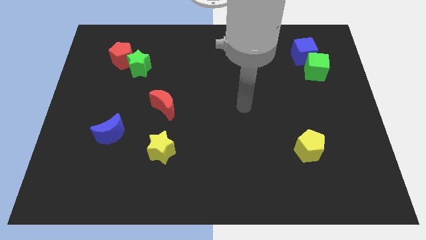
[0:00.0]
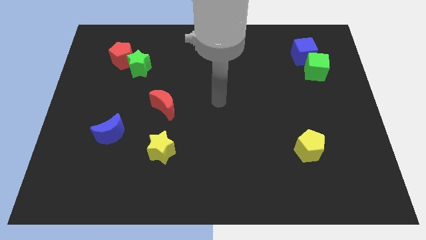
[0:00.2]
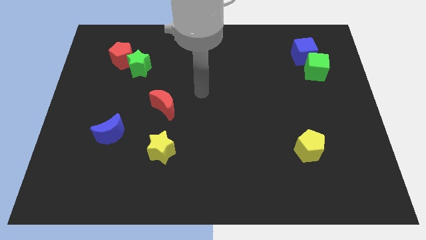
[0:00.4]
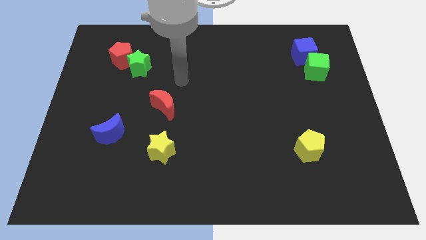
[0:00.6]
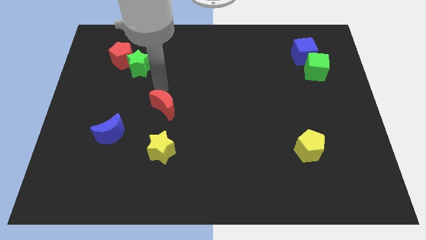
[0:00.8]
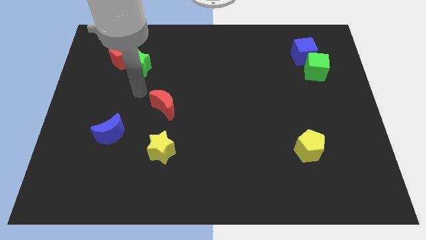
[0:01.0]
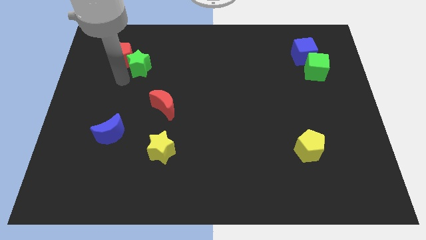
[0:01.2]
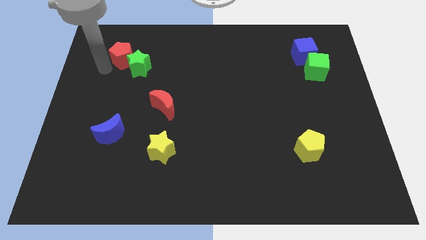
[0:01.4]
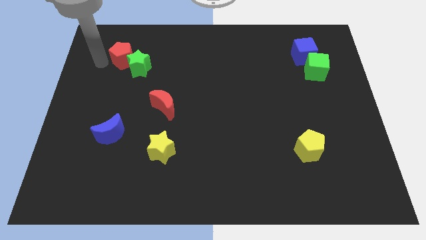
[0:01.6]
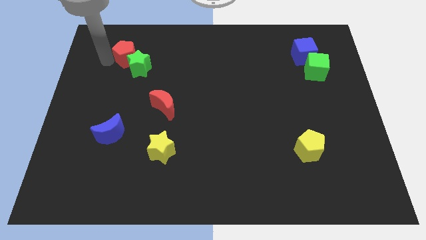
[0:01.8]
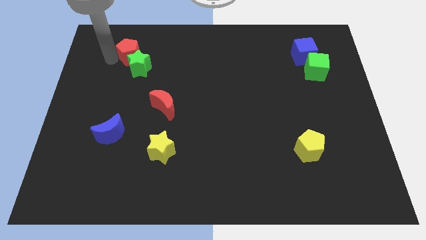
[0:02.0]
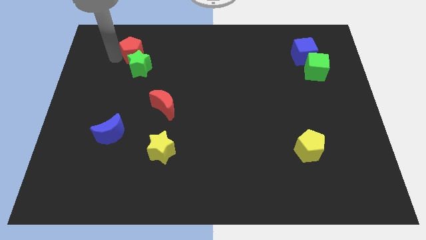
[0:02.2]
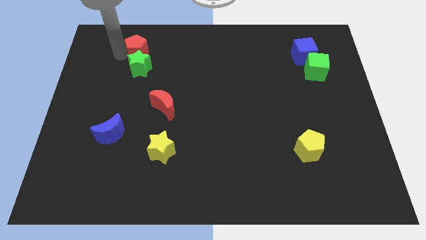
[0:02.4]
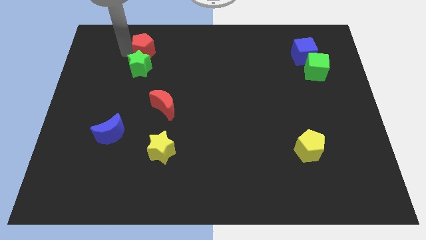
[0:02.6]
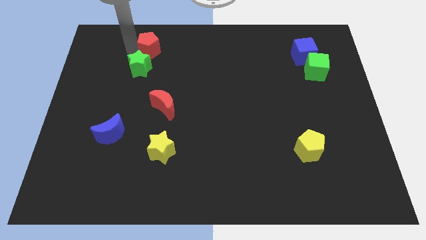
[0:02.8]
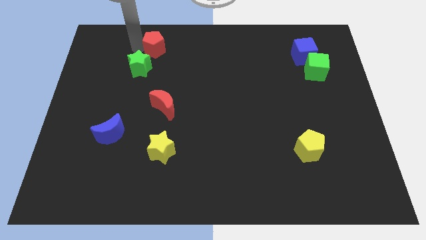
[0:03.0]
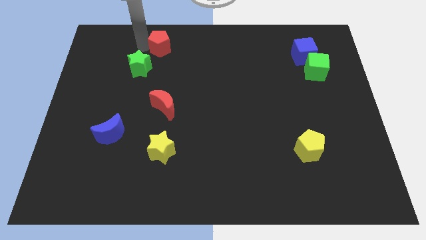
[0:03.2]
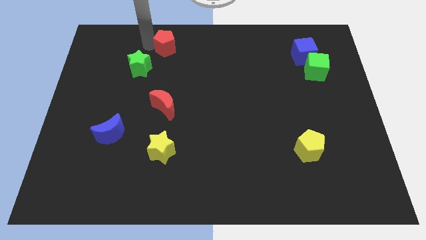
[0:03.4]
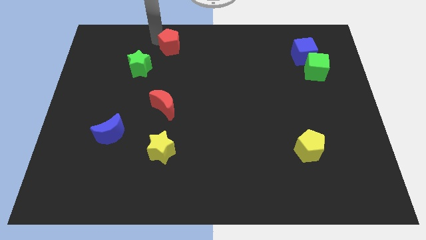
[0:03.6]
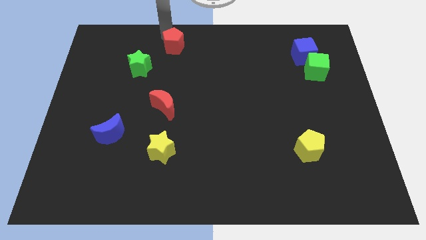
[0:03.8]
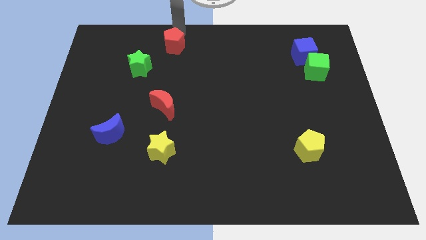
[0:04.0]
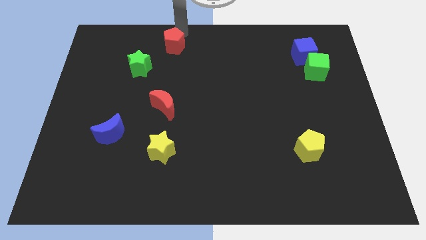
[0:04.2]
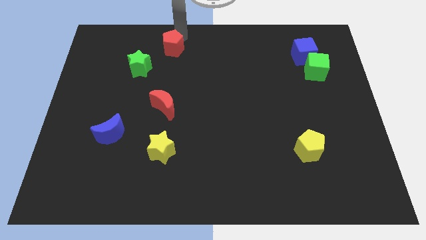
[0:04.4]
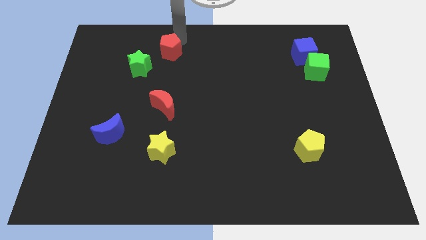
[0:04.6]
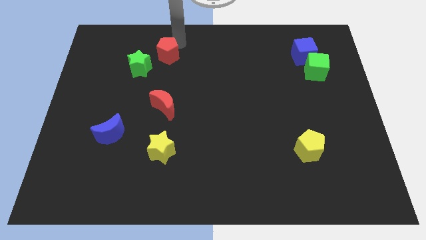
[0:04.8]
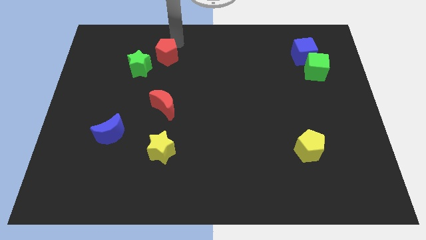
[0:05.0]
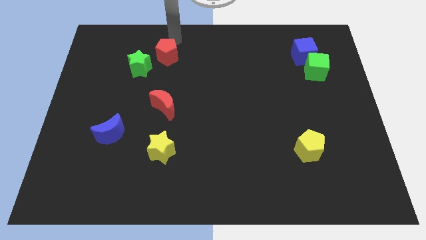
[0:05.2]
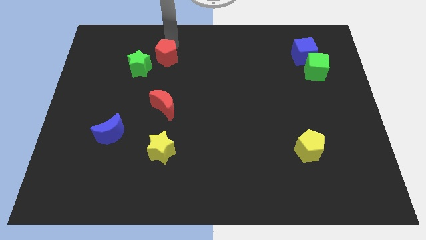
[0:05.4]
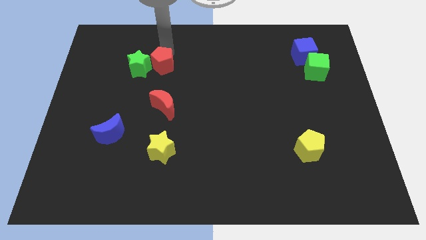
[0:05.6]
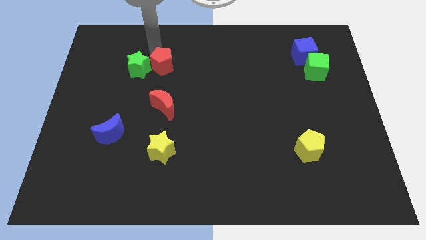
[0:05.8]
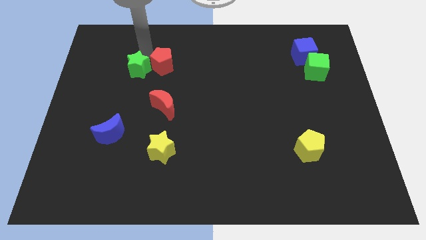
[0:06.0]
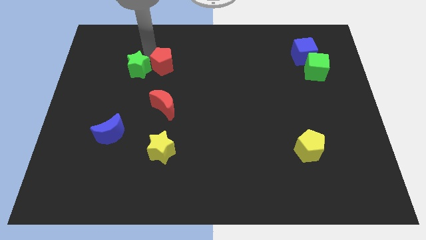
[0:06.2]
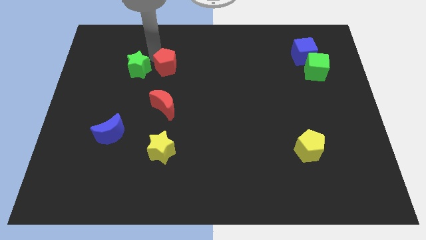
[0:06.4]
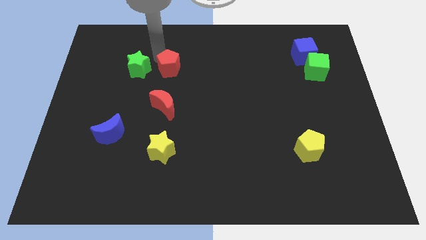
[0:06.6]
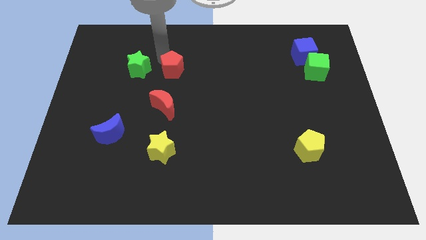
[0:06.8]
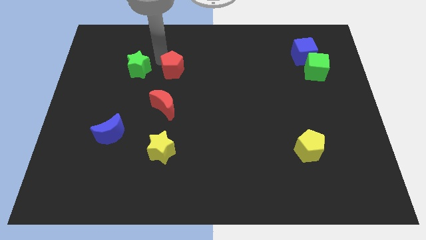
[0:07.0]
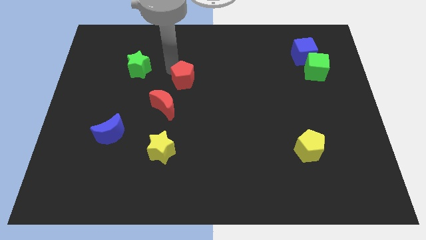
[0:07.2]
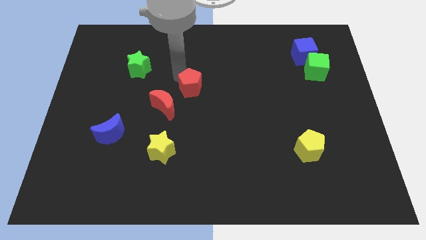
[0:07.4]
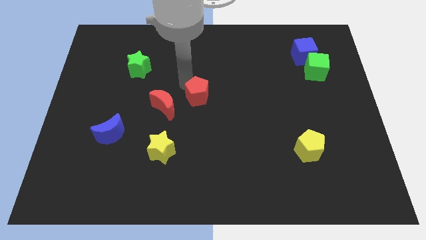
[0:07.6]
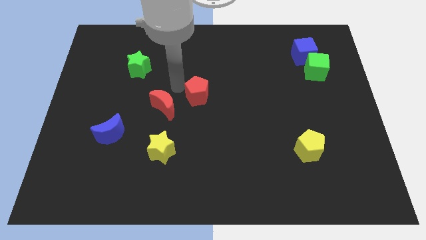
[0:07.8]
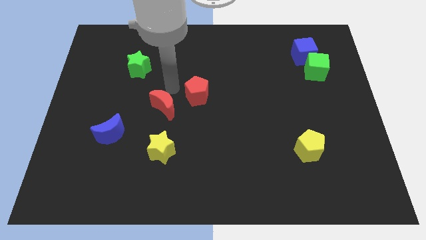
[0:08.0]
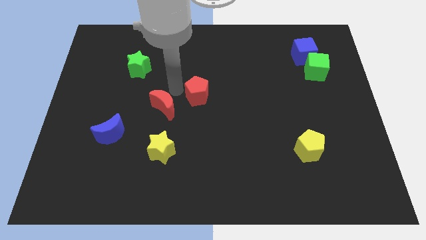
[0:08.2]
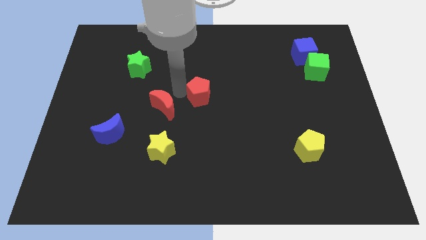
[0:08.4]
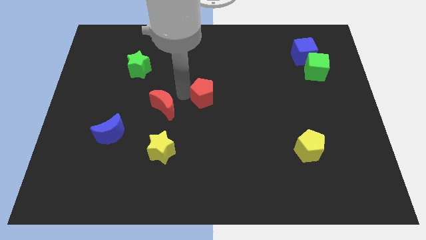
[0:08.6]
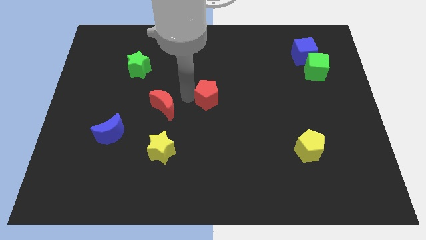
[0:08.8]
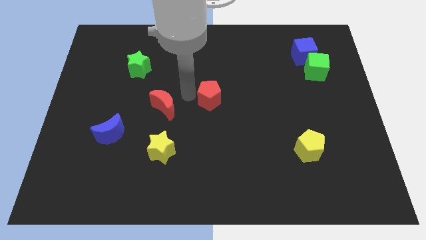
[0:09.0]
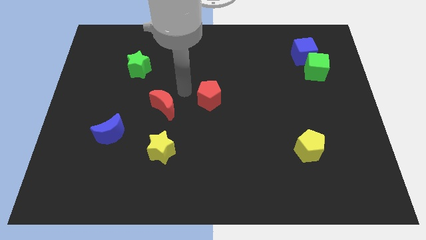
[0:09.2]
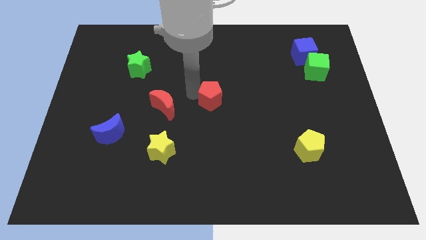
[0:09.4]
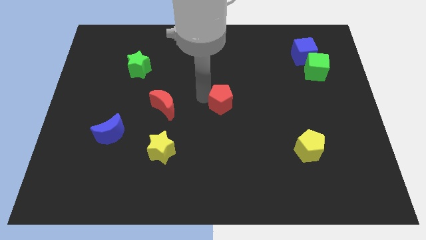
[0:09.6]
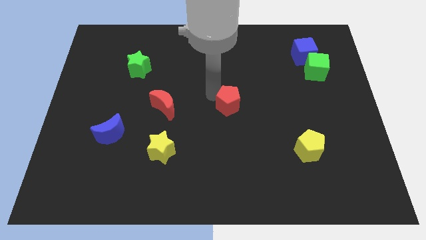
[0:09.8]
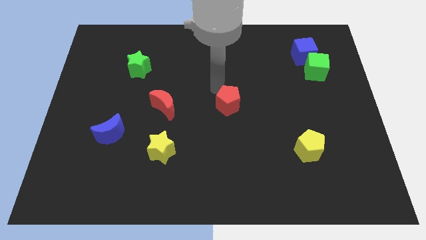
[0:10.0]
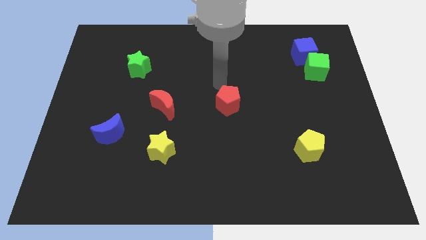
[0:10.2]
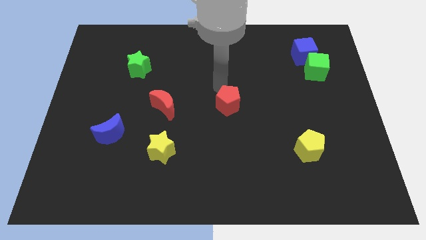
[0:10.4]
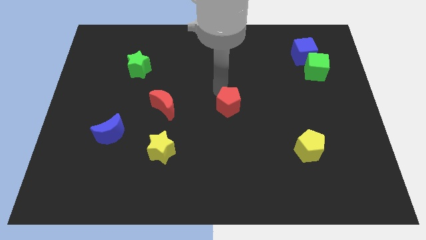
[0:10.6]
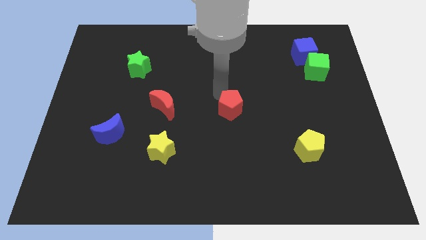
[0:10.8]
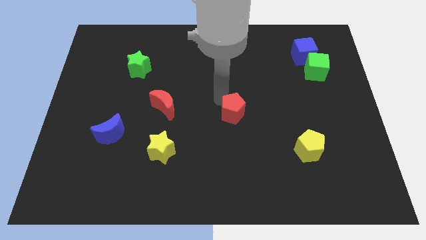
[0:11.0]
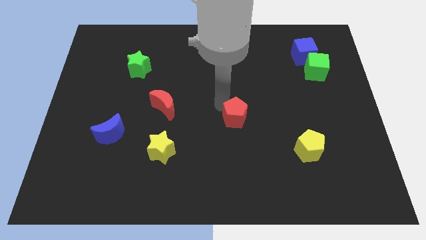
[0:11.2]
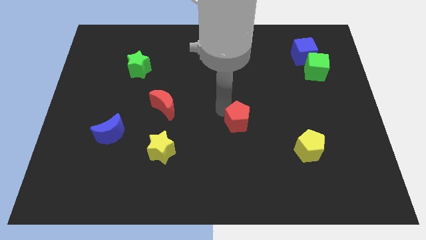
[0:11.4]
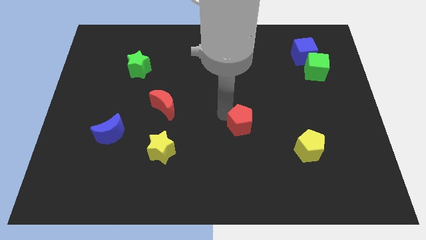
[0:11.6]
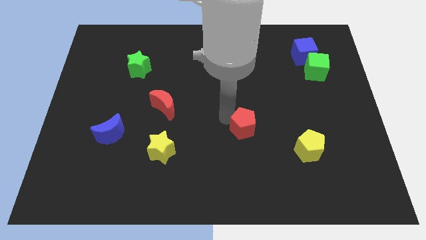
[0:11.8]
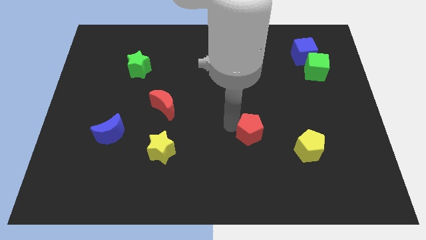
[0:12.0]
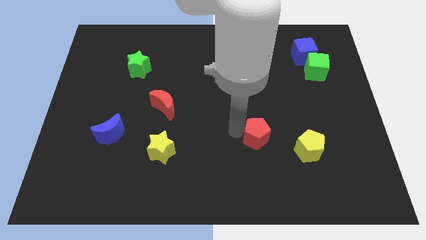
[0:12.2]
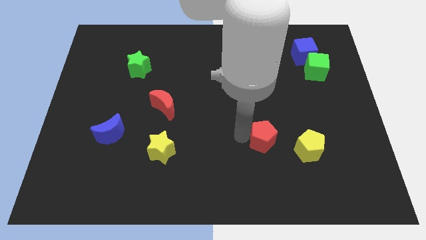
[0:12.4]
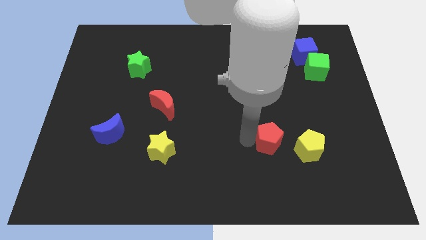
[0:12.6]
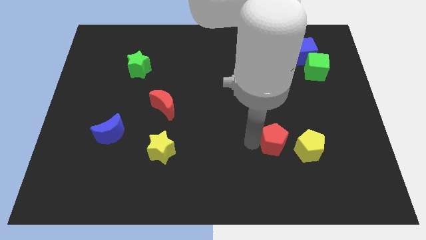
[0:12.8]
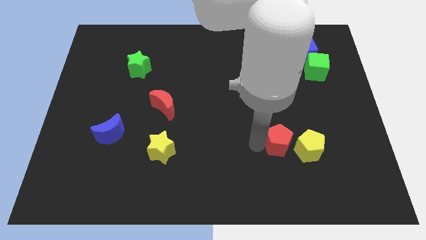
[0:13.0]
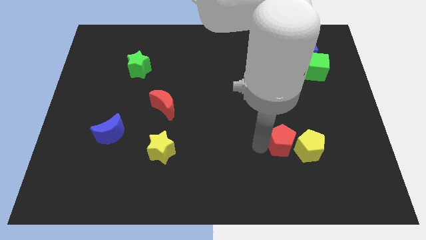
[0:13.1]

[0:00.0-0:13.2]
push the red pentagon towards the yellow pentagon

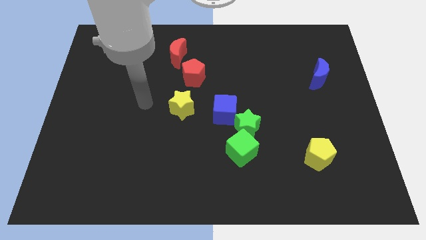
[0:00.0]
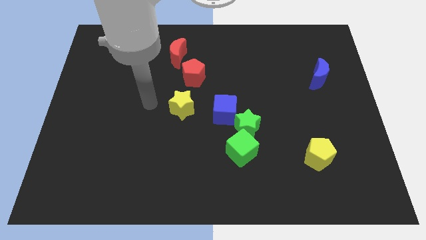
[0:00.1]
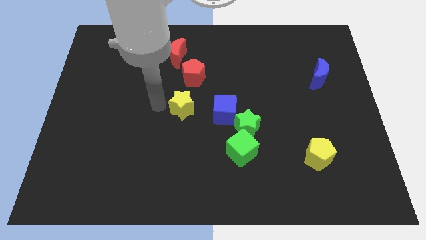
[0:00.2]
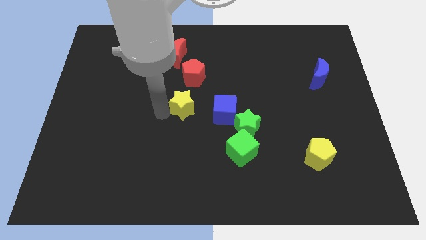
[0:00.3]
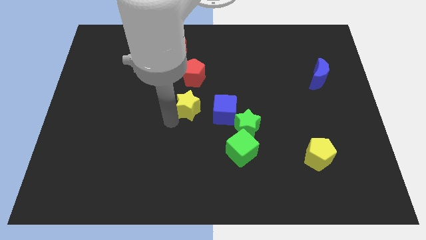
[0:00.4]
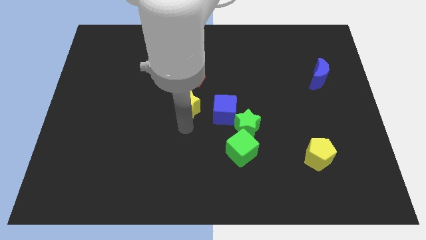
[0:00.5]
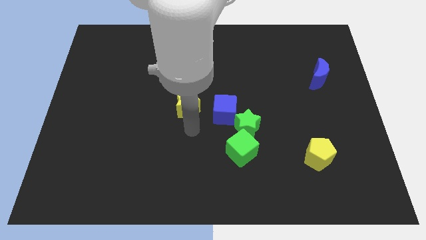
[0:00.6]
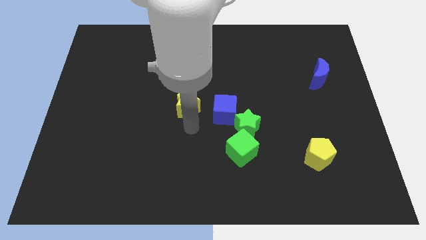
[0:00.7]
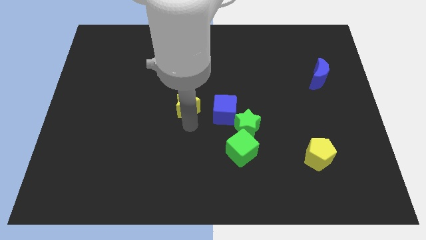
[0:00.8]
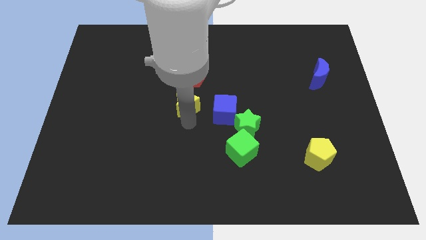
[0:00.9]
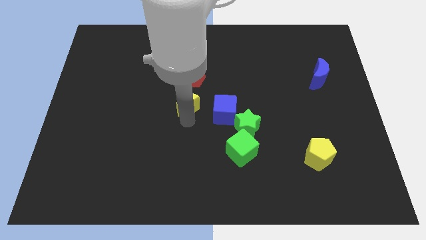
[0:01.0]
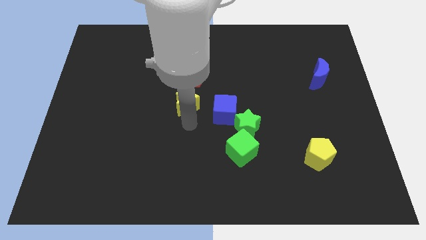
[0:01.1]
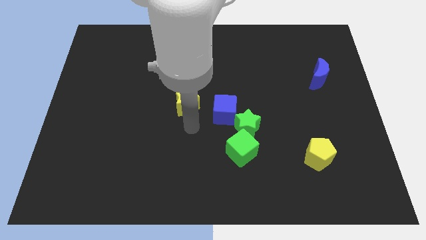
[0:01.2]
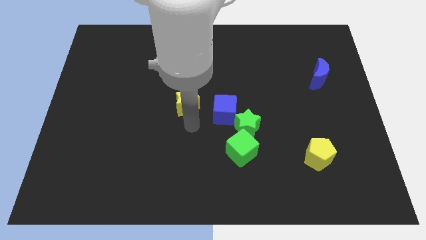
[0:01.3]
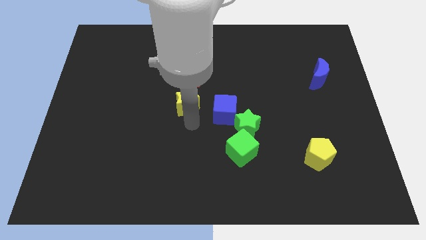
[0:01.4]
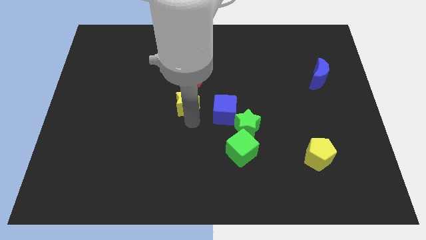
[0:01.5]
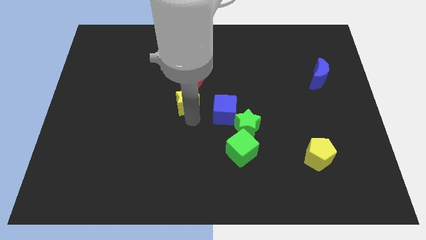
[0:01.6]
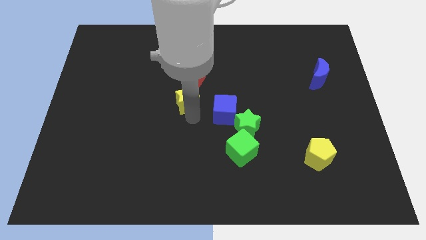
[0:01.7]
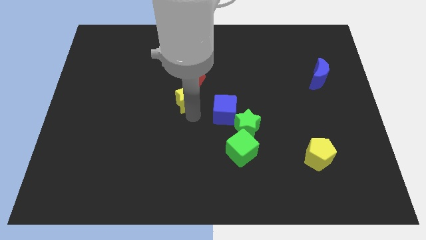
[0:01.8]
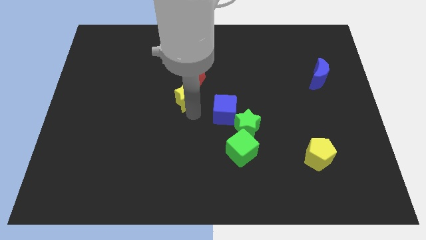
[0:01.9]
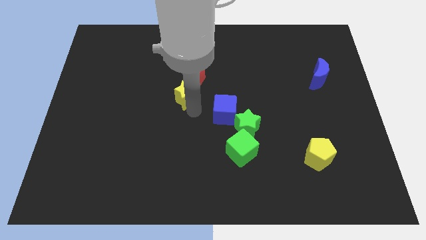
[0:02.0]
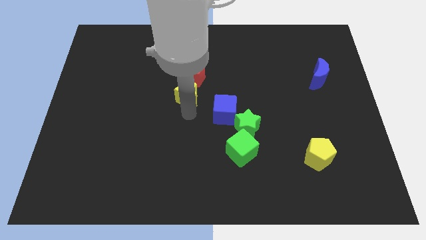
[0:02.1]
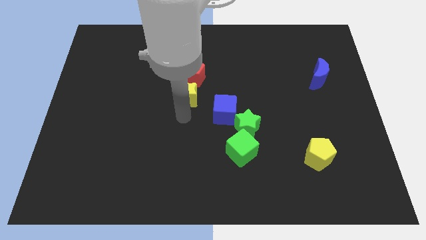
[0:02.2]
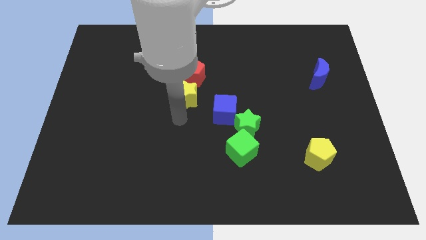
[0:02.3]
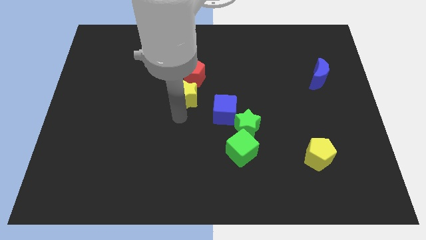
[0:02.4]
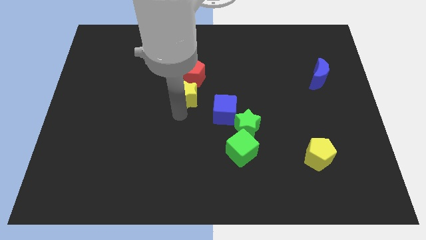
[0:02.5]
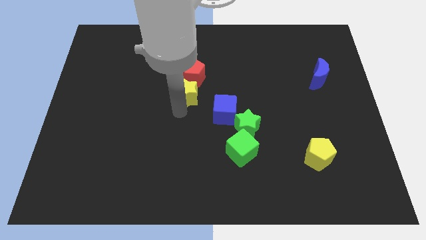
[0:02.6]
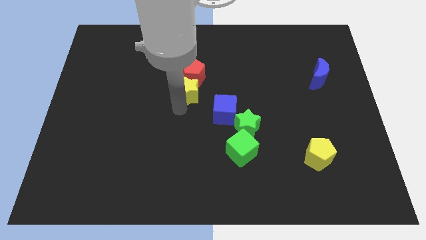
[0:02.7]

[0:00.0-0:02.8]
slide the yellow star towards the red pentagon
